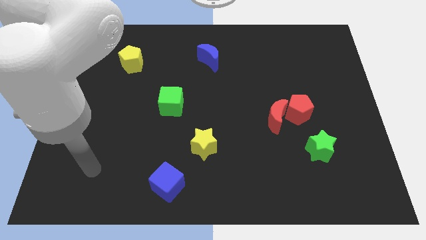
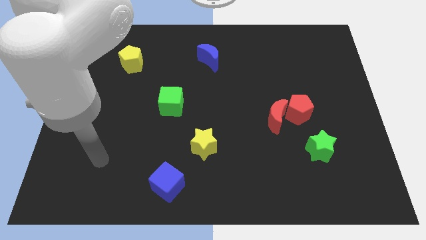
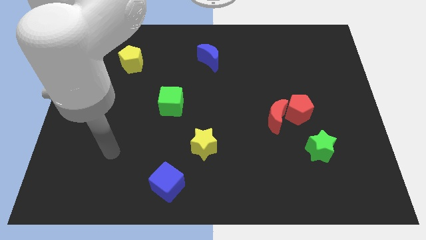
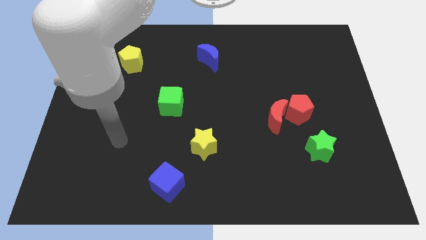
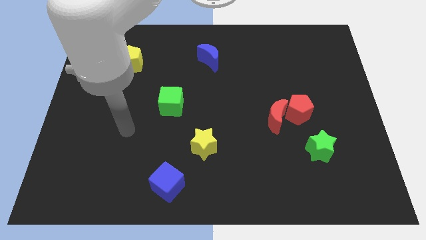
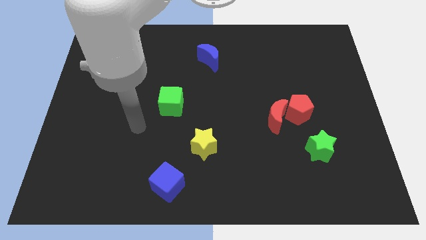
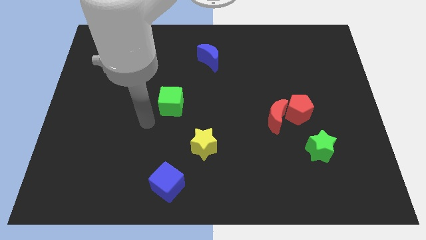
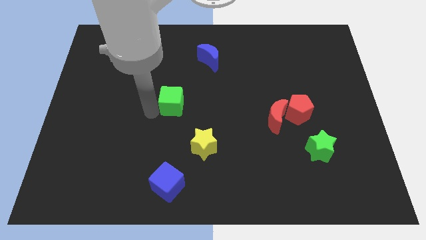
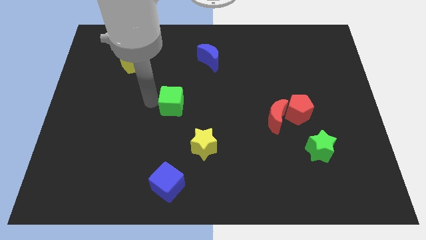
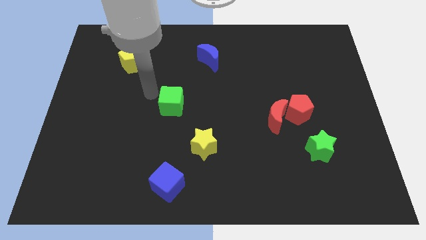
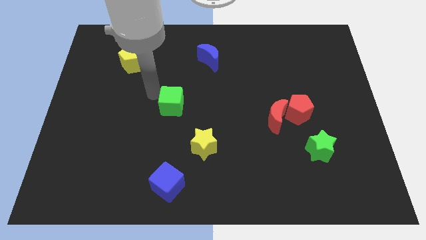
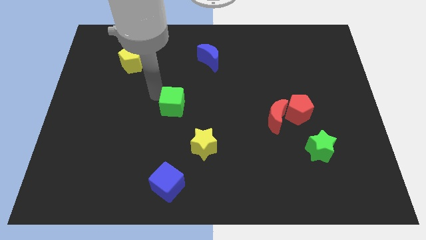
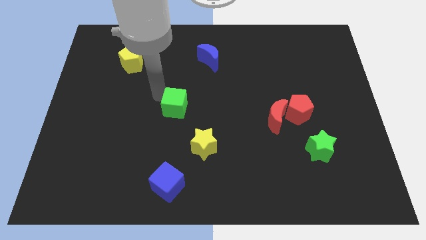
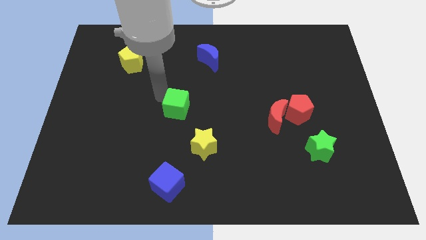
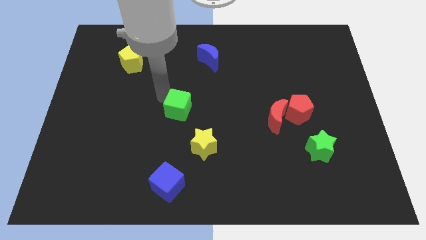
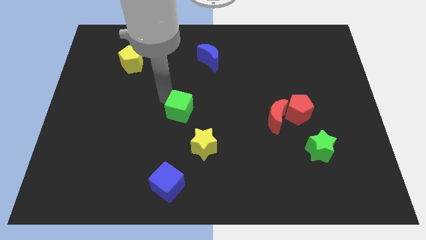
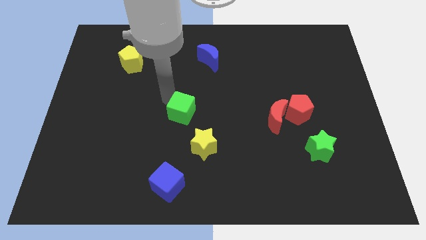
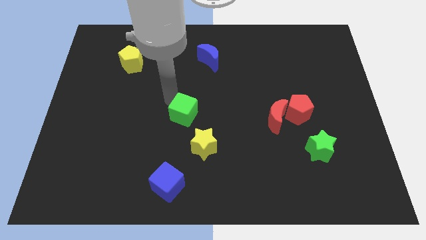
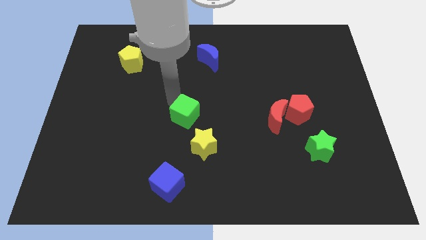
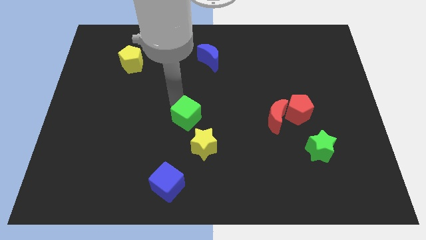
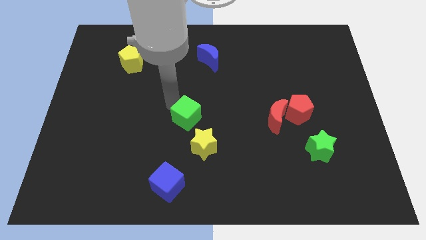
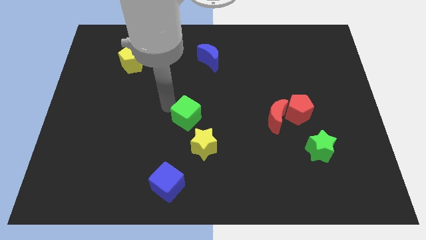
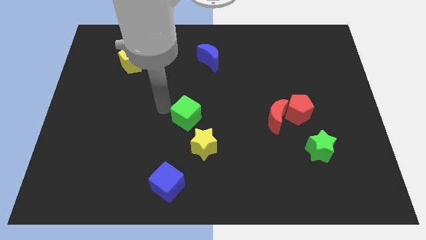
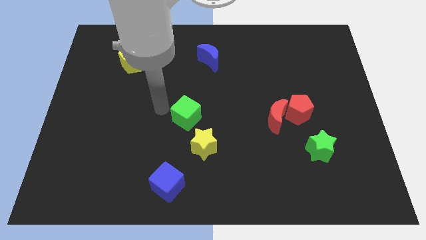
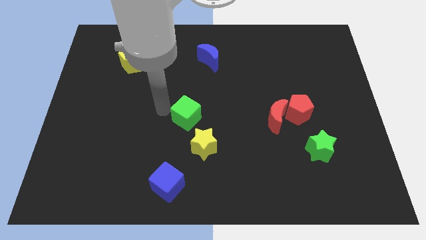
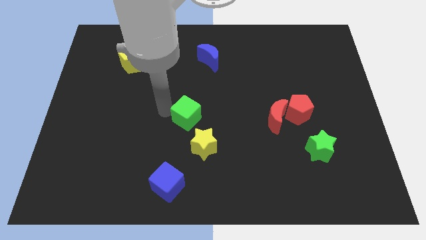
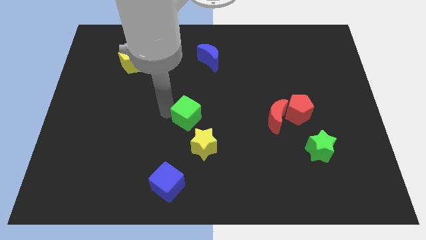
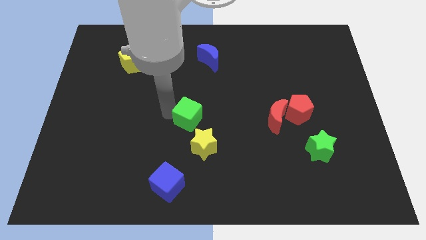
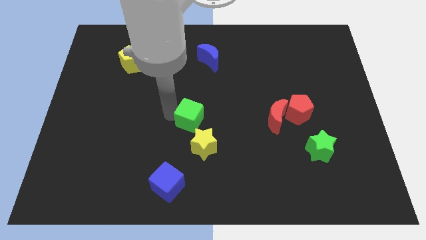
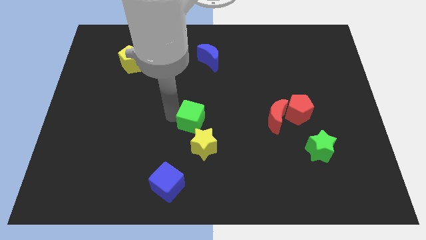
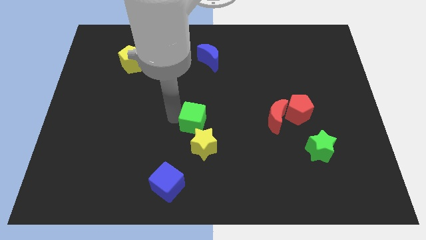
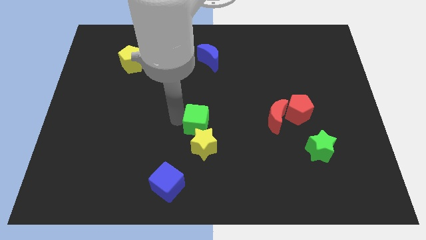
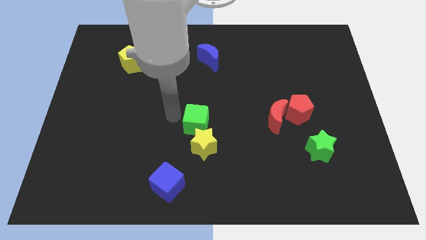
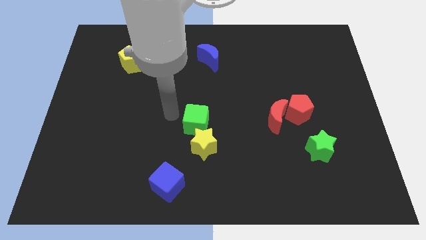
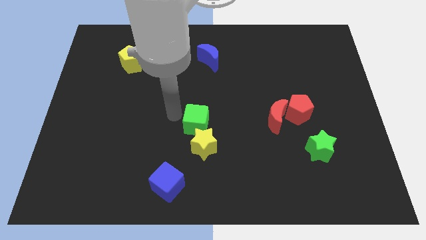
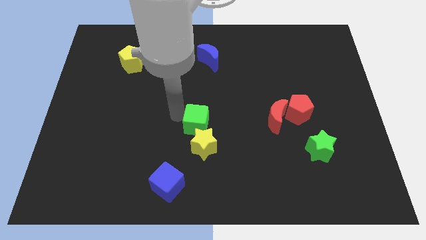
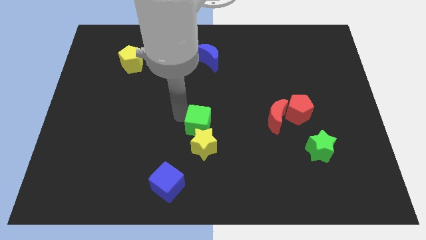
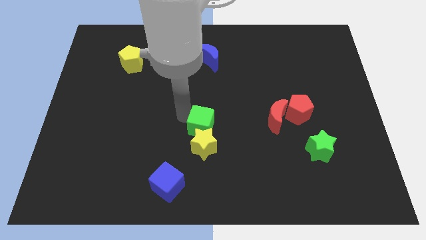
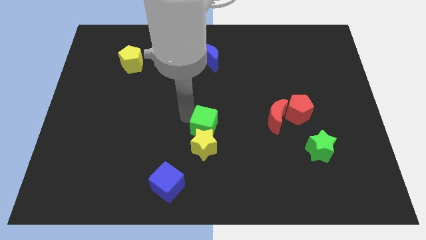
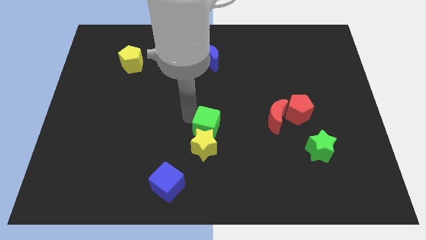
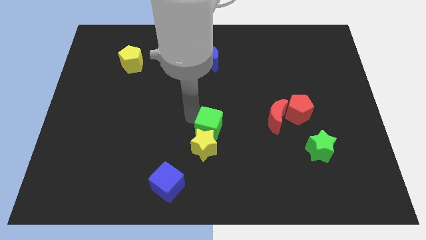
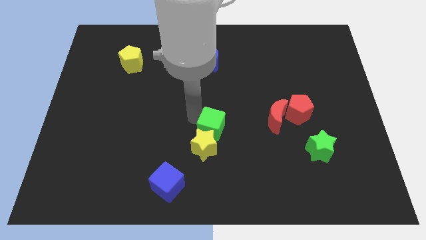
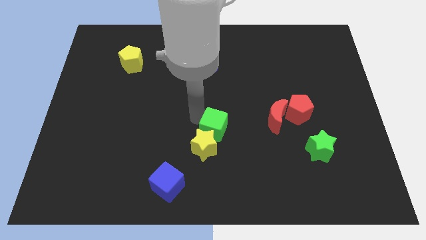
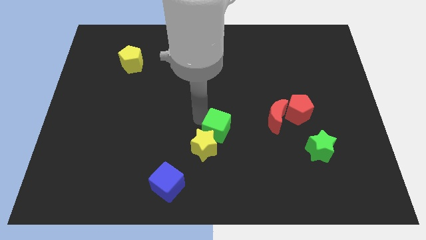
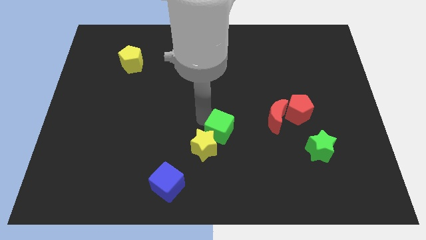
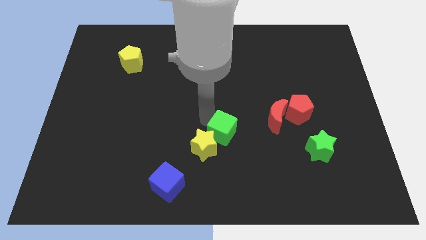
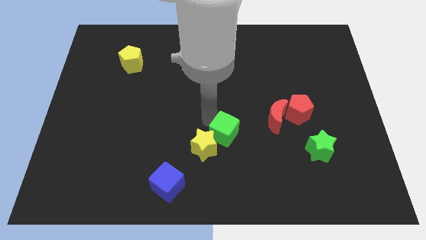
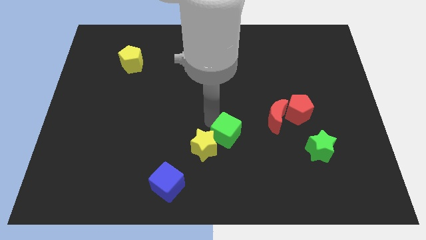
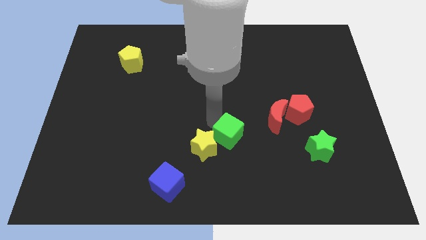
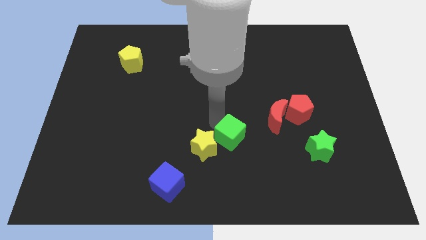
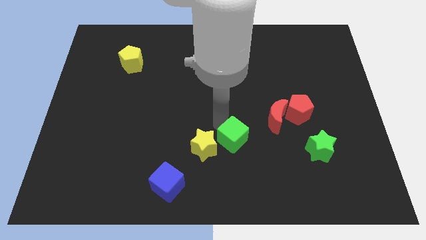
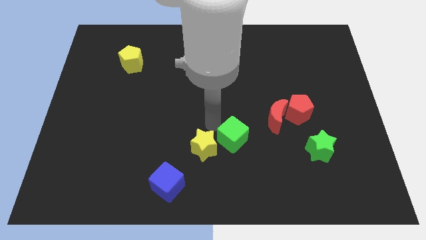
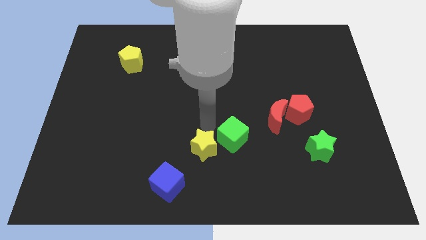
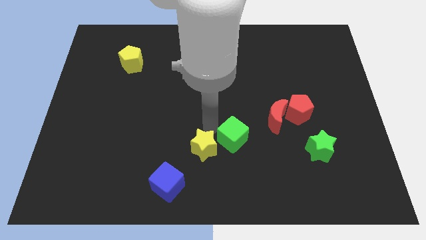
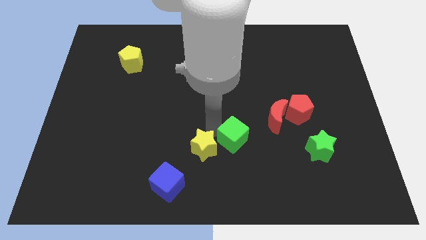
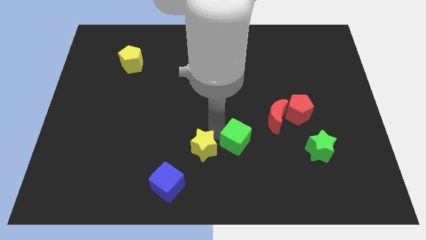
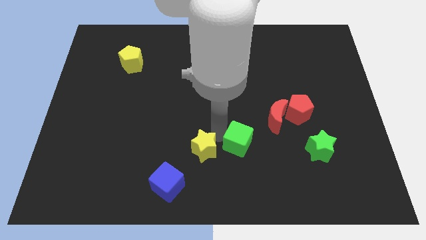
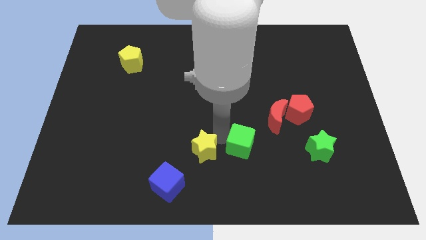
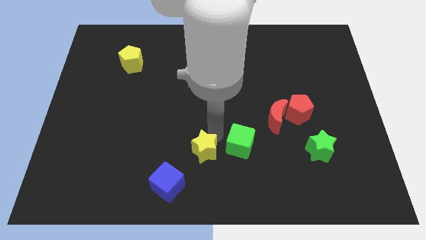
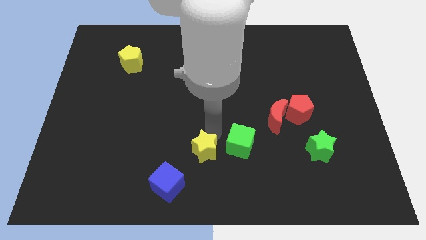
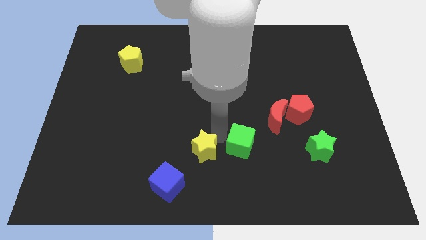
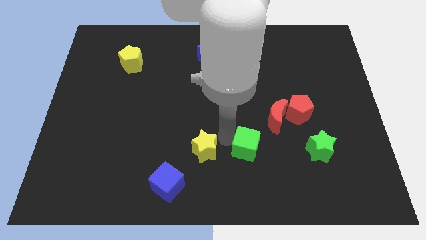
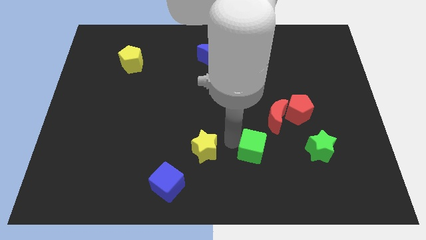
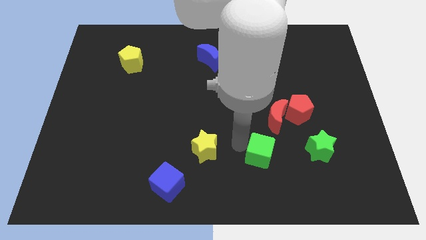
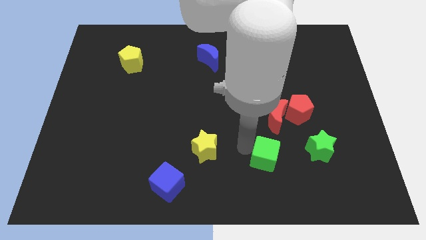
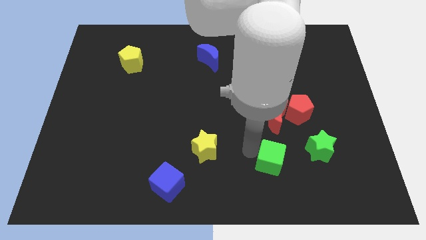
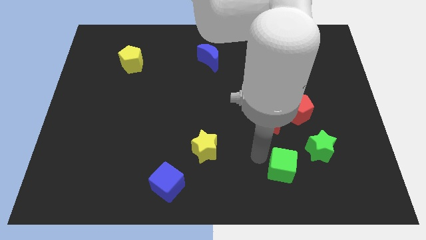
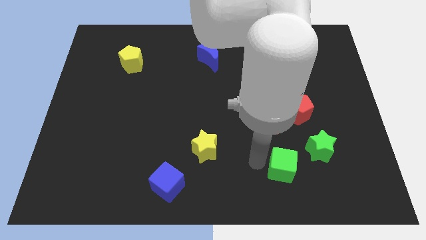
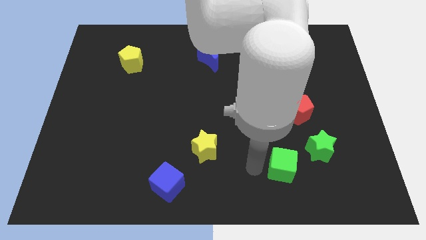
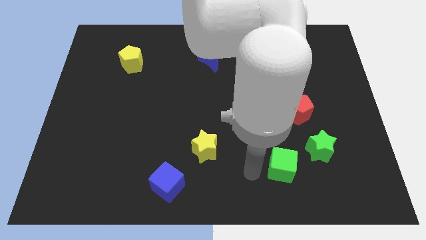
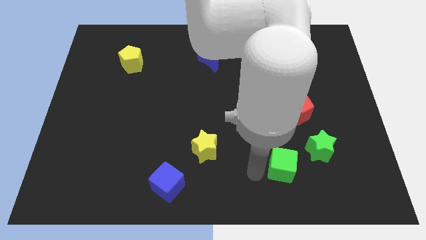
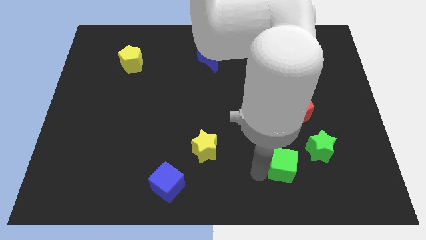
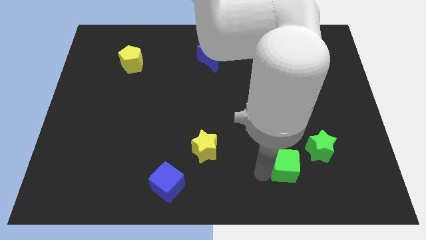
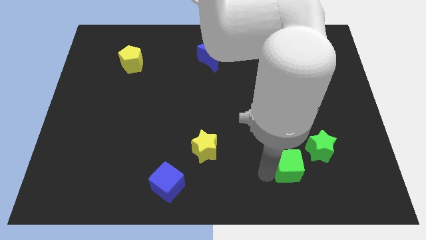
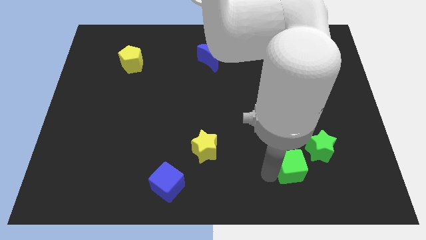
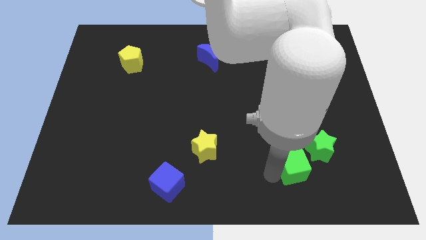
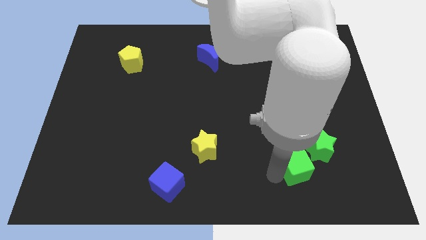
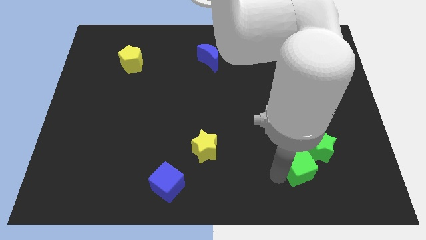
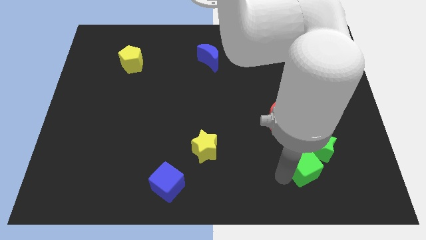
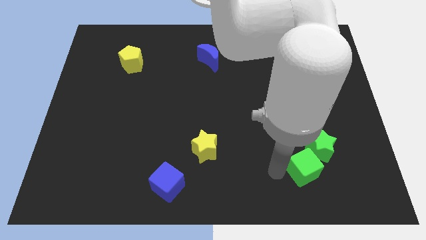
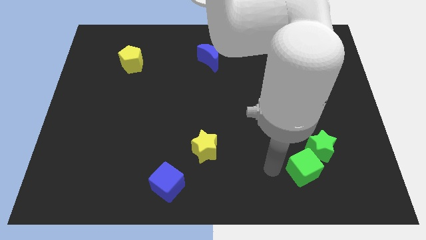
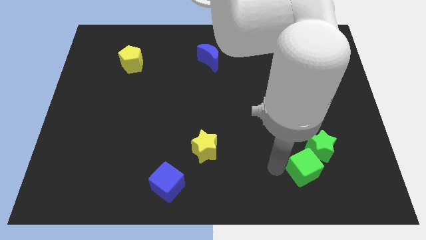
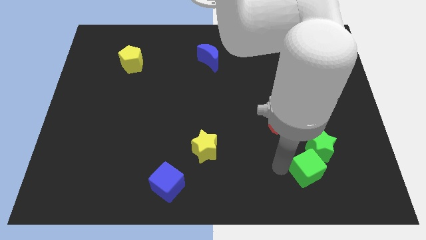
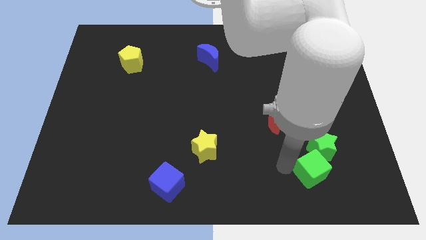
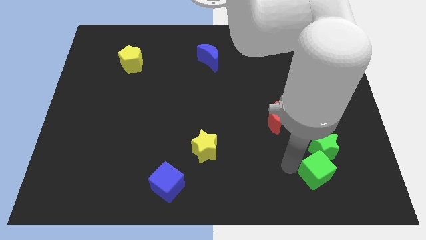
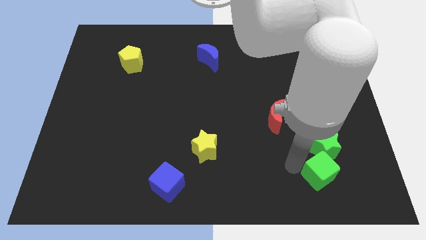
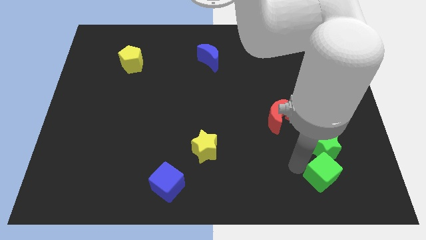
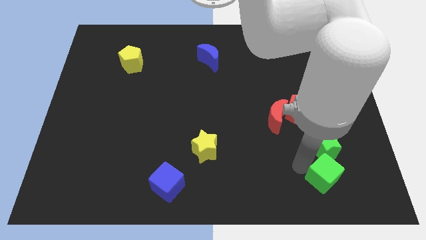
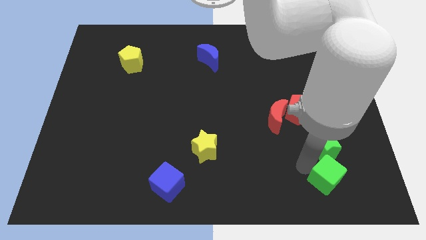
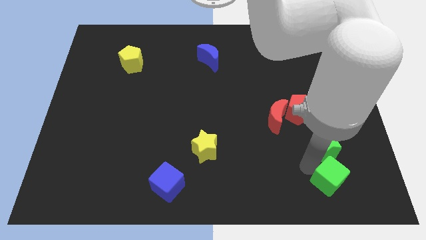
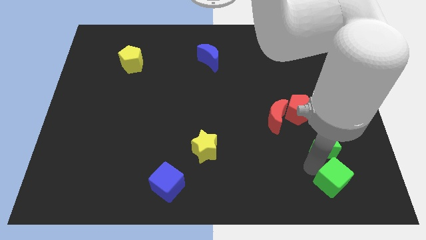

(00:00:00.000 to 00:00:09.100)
push the green cube diagonally down and to the right of the green star
